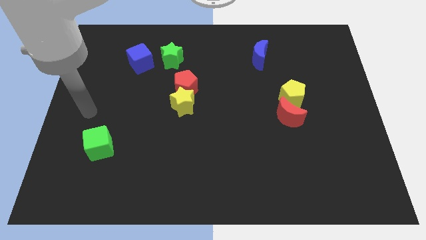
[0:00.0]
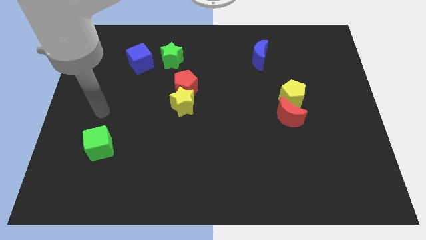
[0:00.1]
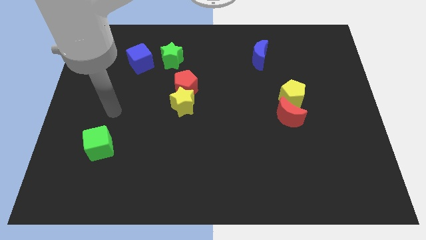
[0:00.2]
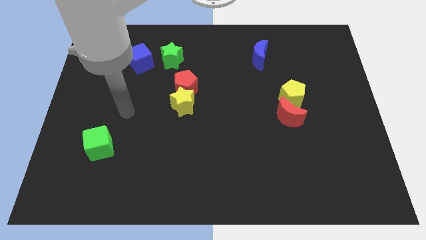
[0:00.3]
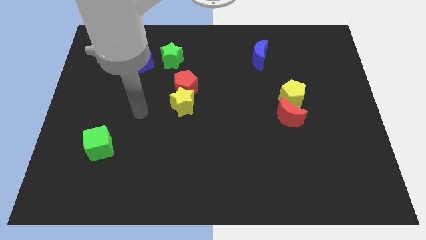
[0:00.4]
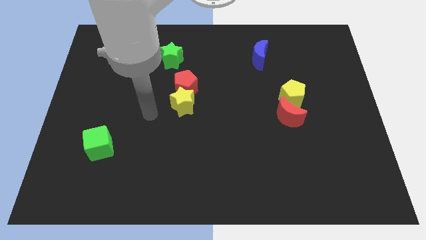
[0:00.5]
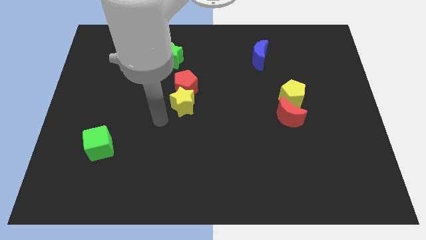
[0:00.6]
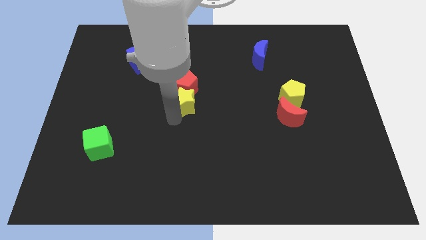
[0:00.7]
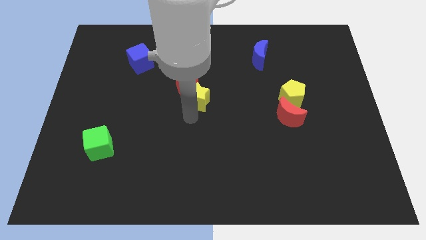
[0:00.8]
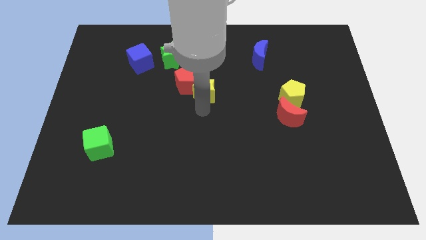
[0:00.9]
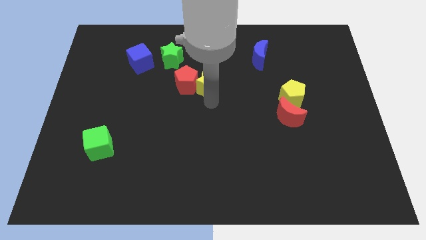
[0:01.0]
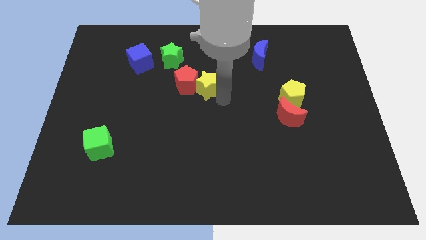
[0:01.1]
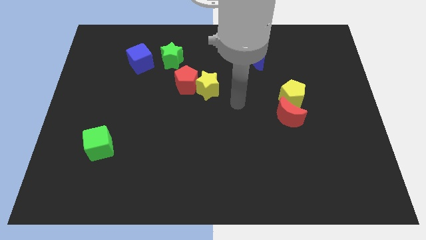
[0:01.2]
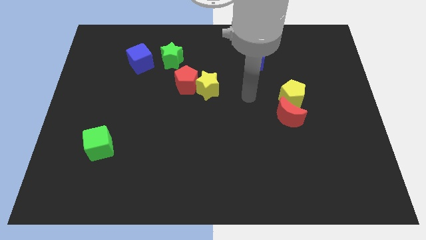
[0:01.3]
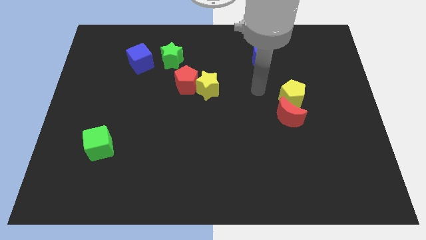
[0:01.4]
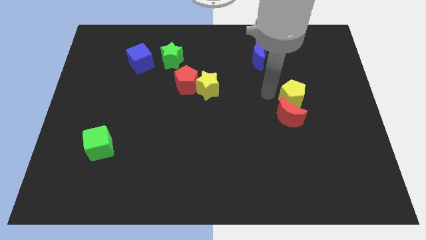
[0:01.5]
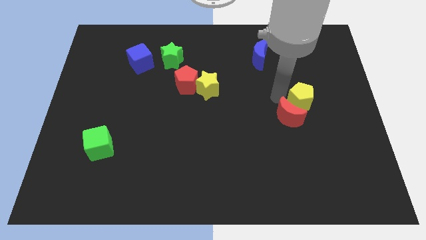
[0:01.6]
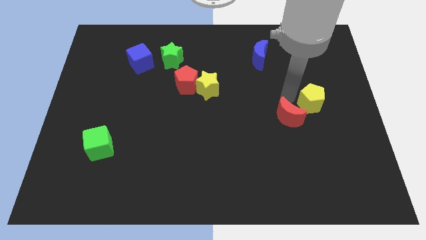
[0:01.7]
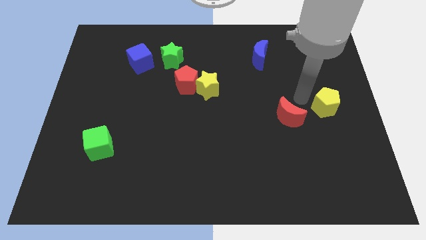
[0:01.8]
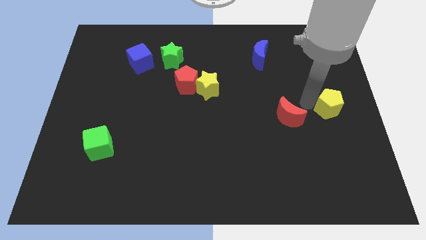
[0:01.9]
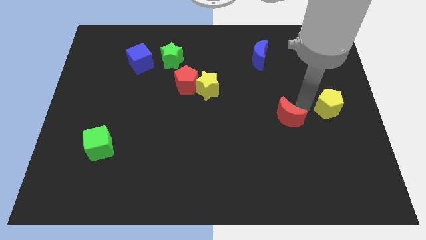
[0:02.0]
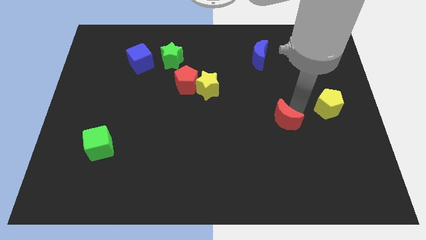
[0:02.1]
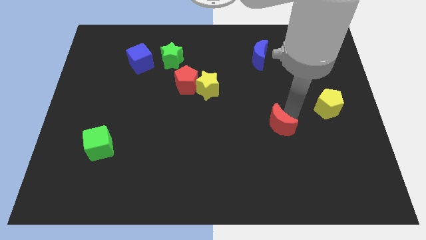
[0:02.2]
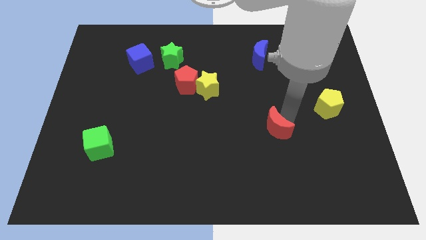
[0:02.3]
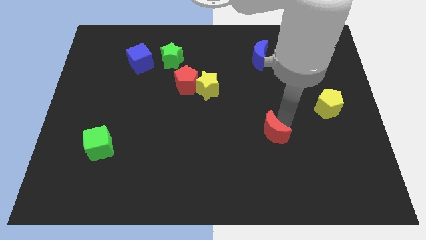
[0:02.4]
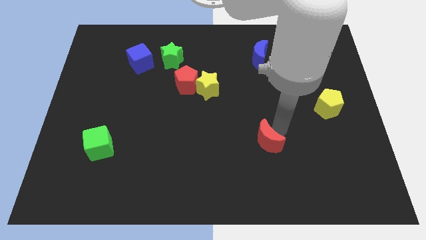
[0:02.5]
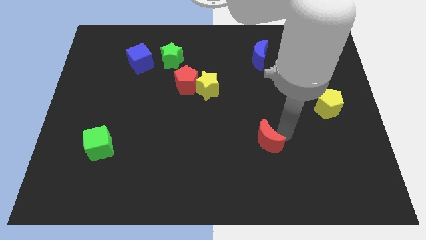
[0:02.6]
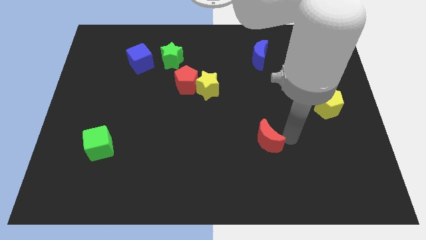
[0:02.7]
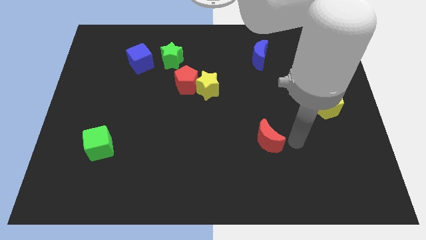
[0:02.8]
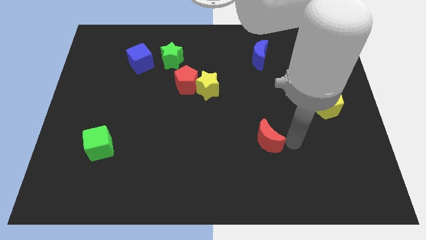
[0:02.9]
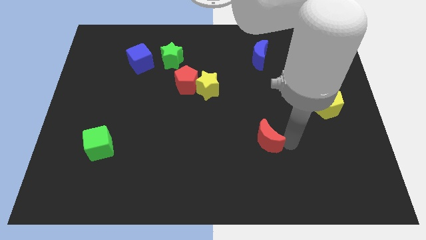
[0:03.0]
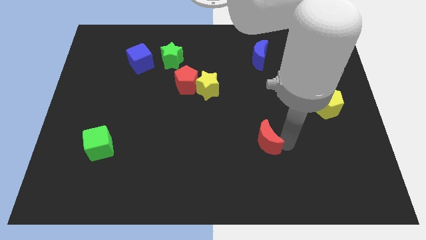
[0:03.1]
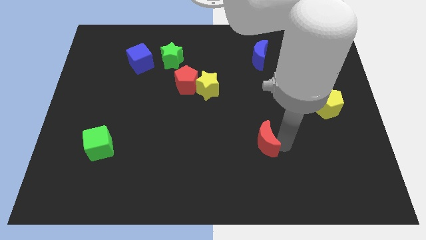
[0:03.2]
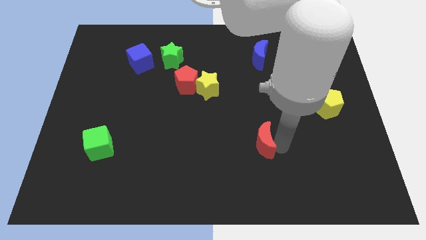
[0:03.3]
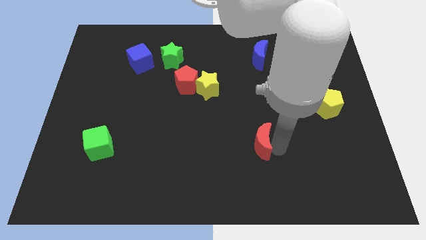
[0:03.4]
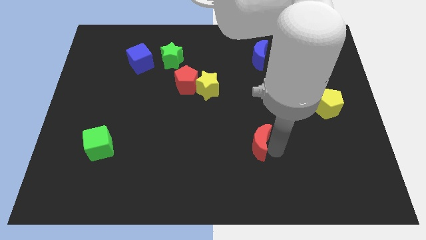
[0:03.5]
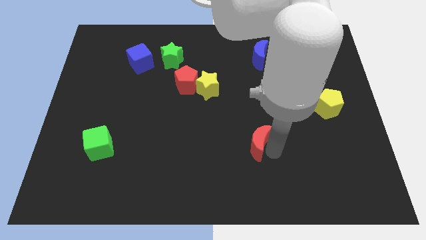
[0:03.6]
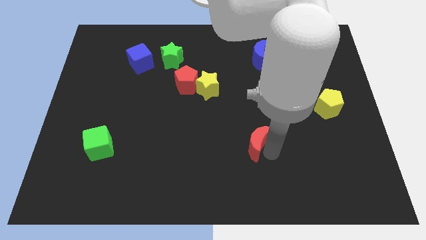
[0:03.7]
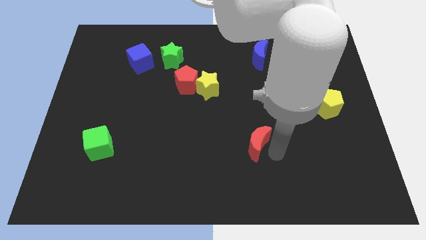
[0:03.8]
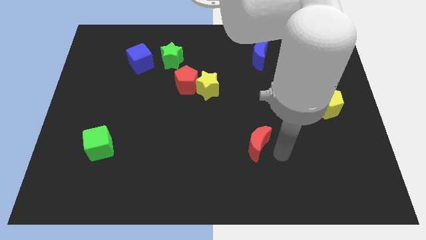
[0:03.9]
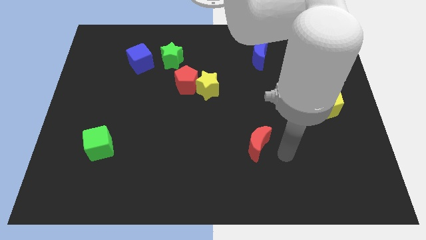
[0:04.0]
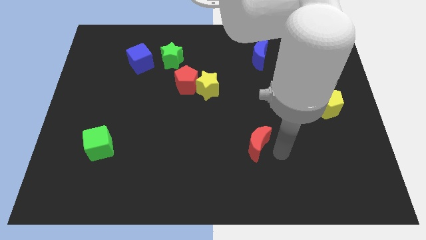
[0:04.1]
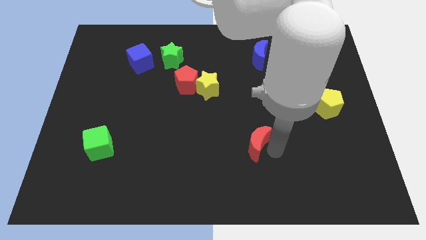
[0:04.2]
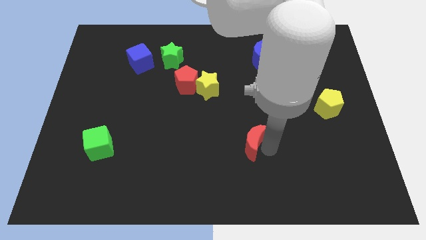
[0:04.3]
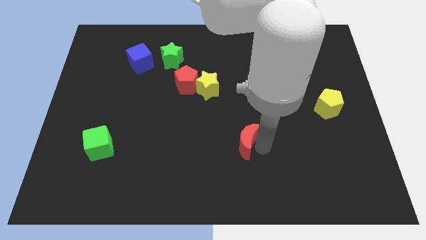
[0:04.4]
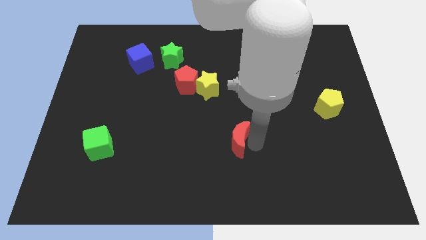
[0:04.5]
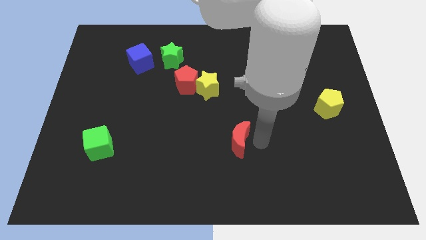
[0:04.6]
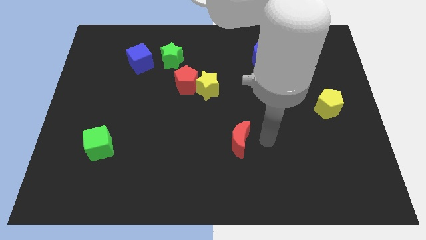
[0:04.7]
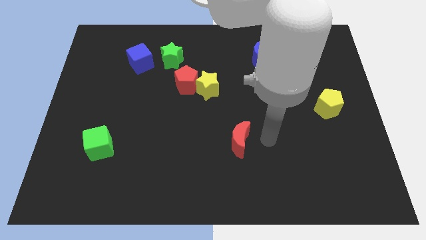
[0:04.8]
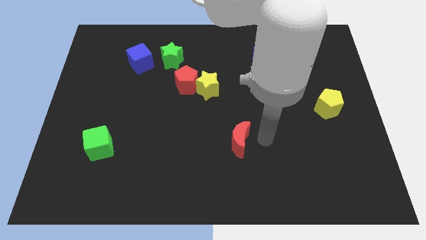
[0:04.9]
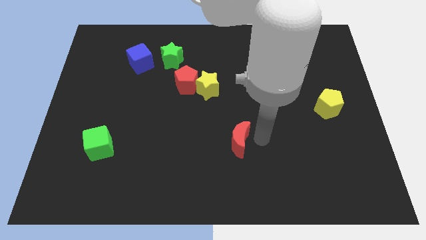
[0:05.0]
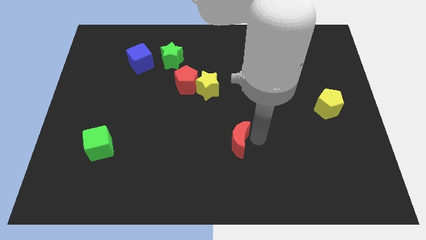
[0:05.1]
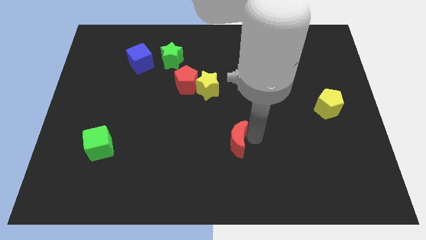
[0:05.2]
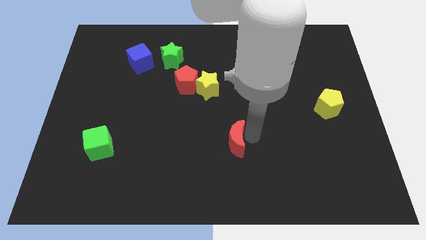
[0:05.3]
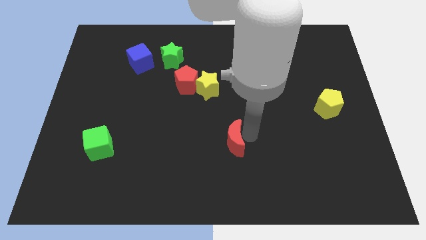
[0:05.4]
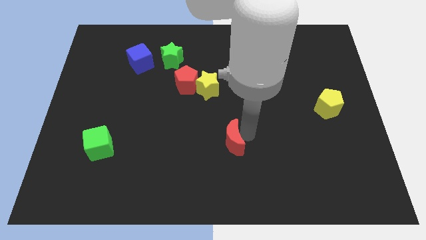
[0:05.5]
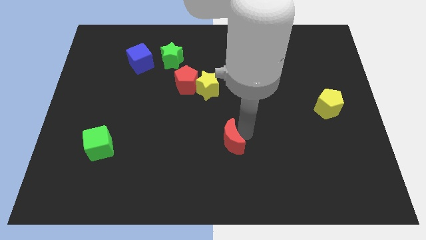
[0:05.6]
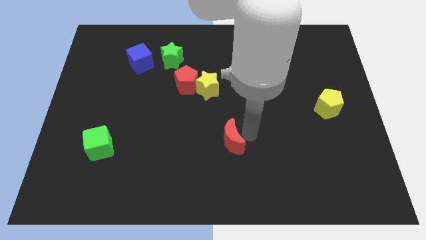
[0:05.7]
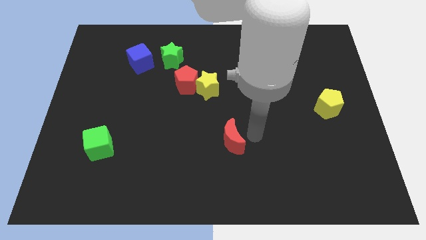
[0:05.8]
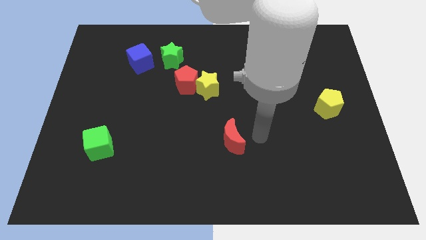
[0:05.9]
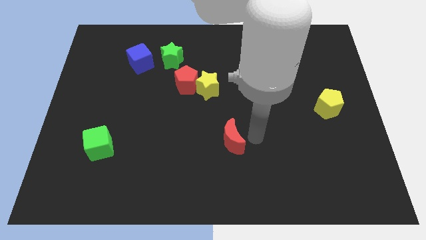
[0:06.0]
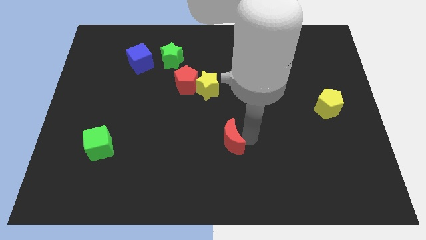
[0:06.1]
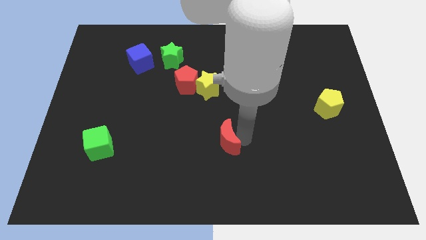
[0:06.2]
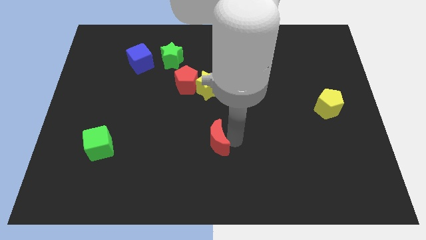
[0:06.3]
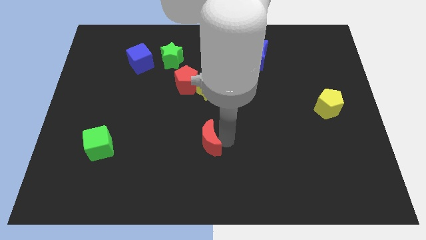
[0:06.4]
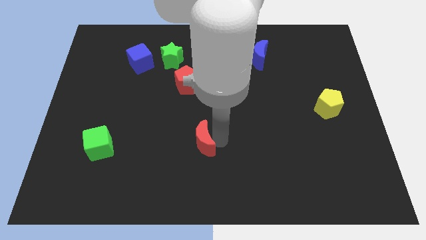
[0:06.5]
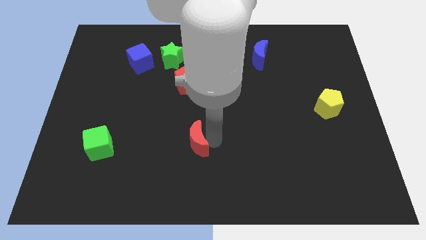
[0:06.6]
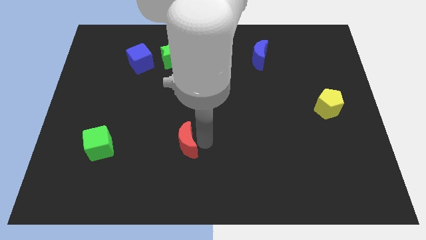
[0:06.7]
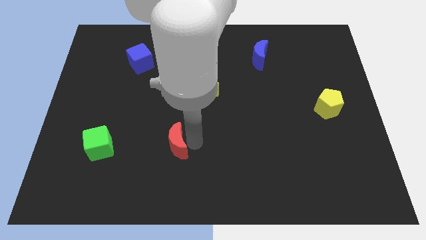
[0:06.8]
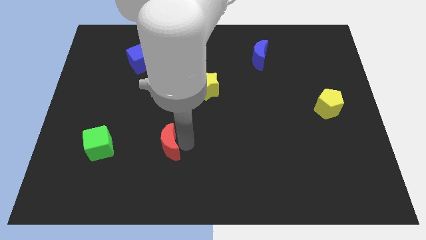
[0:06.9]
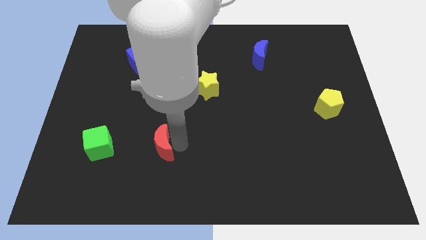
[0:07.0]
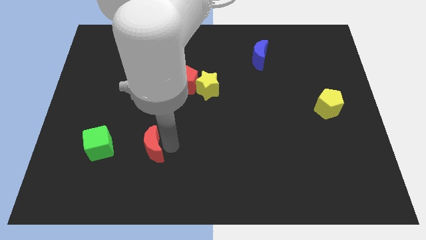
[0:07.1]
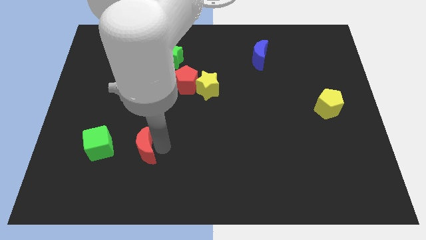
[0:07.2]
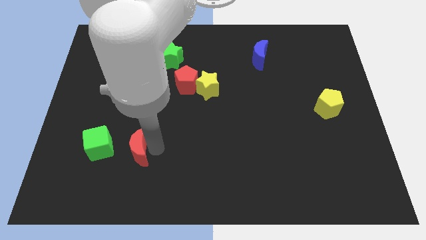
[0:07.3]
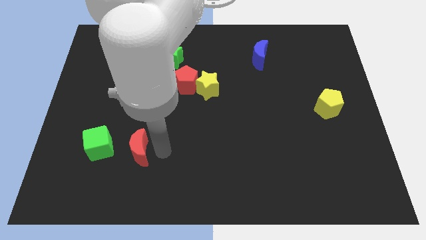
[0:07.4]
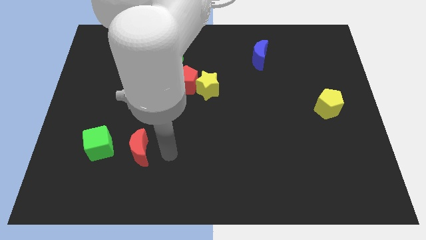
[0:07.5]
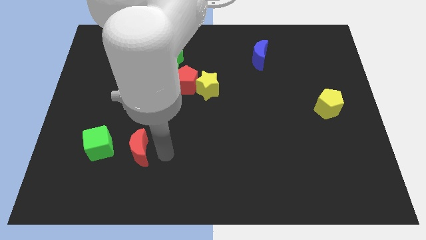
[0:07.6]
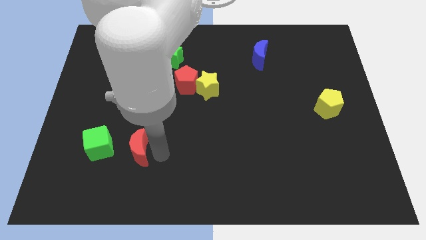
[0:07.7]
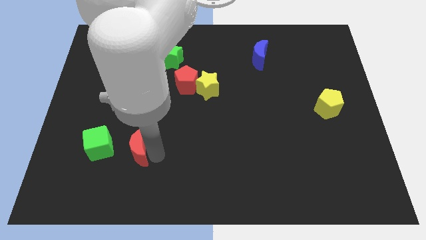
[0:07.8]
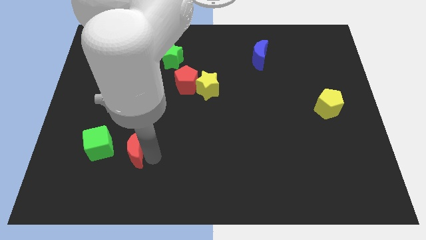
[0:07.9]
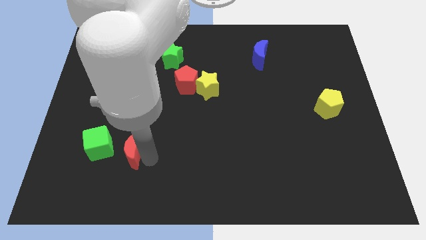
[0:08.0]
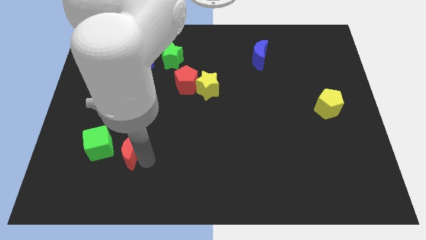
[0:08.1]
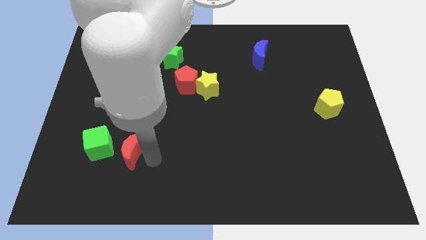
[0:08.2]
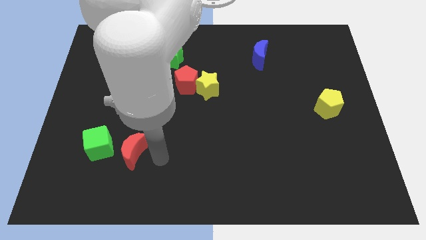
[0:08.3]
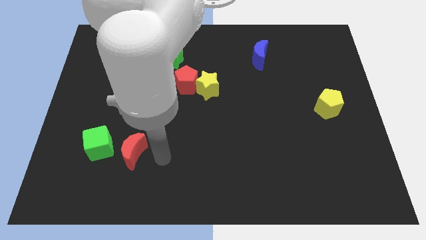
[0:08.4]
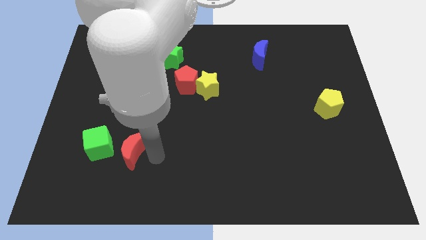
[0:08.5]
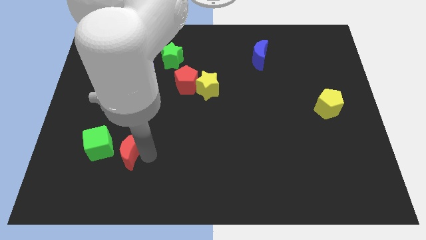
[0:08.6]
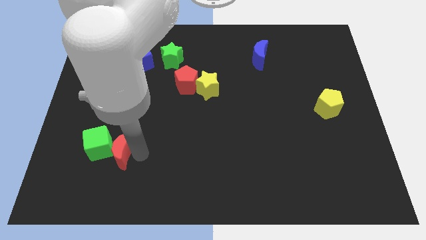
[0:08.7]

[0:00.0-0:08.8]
put the red moon next to the green cube
